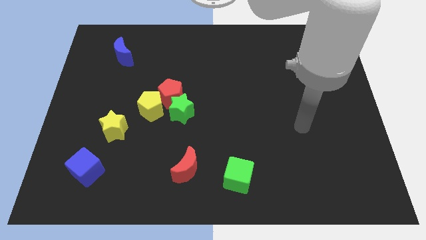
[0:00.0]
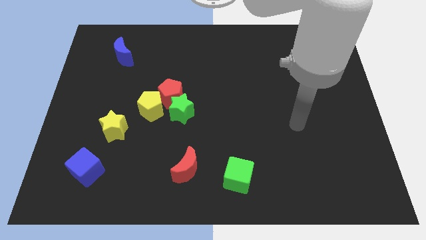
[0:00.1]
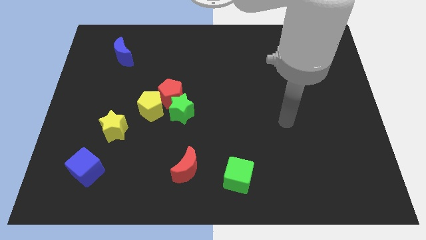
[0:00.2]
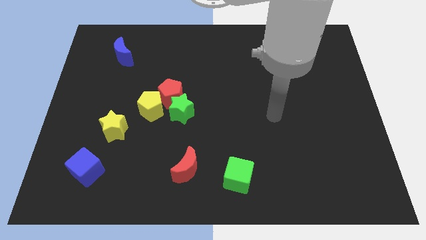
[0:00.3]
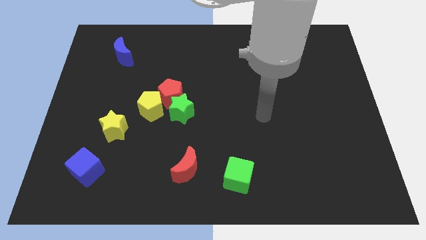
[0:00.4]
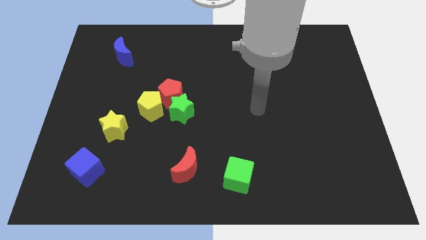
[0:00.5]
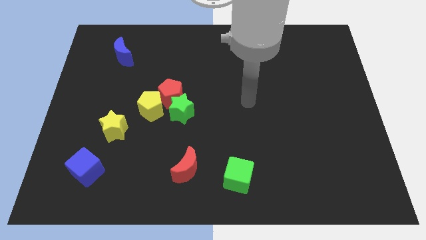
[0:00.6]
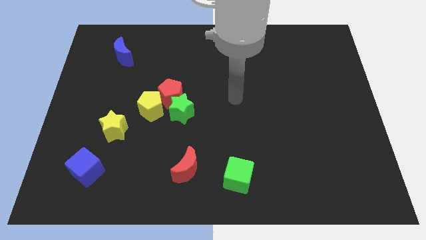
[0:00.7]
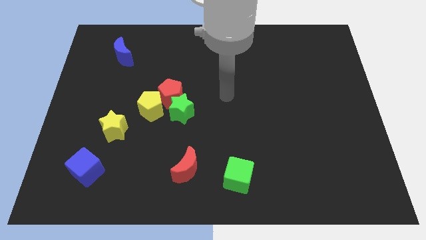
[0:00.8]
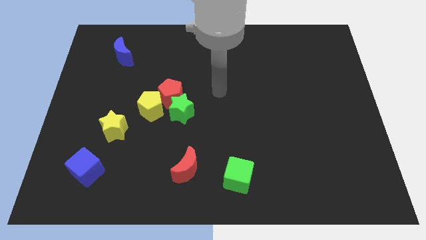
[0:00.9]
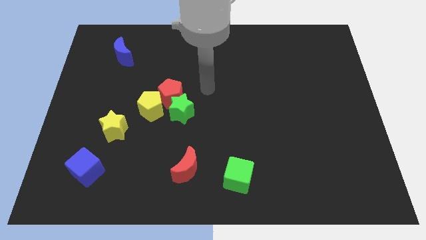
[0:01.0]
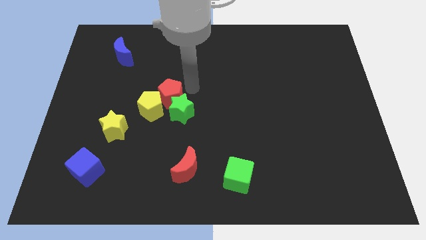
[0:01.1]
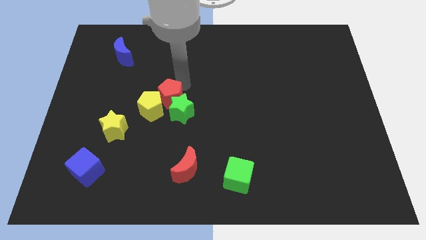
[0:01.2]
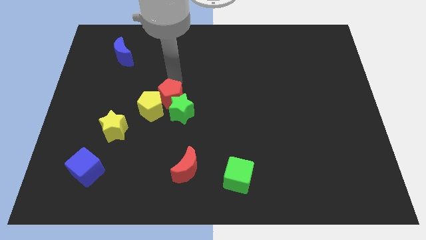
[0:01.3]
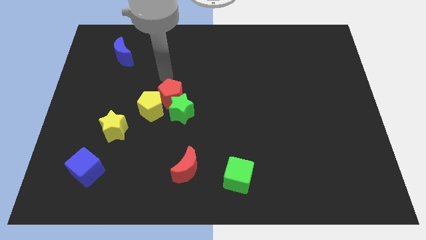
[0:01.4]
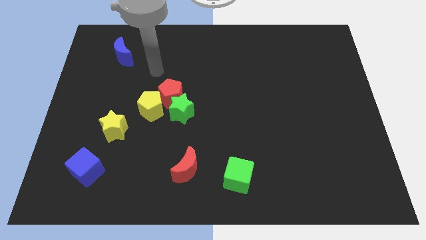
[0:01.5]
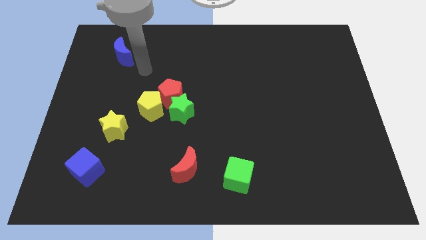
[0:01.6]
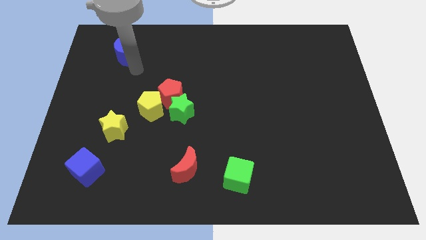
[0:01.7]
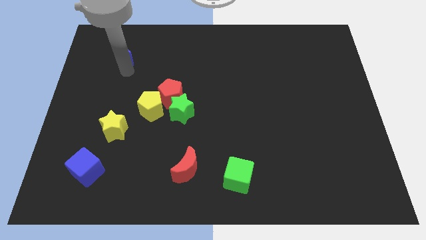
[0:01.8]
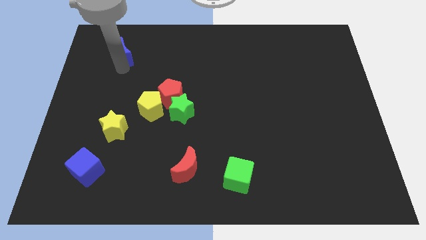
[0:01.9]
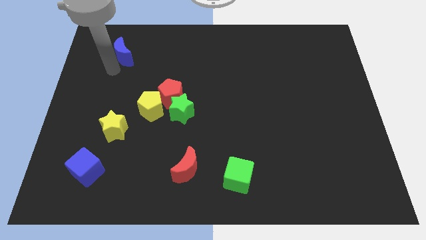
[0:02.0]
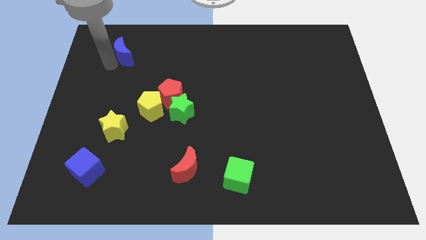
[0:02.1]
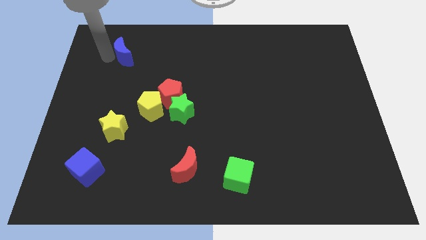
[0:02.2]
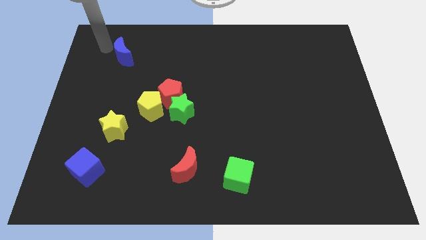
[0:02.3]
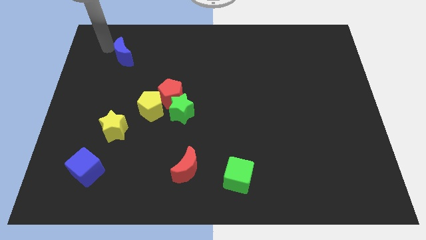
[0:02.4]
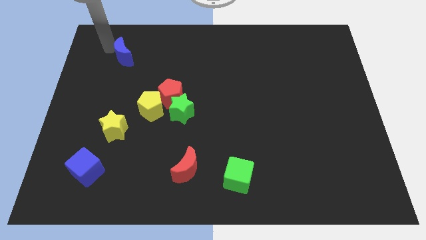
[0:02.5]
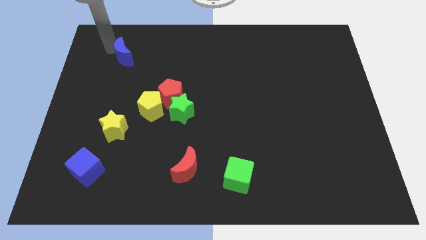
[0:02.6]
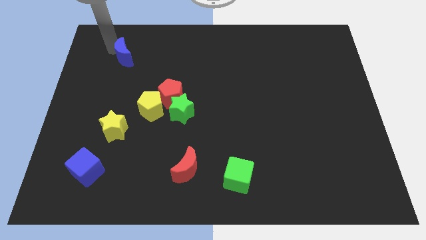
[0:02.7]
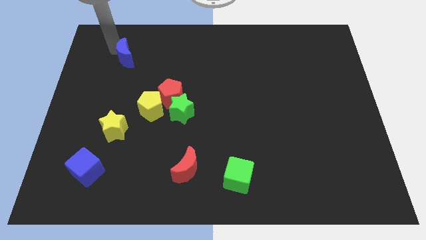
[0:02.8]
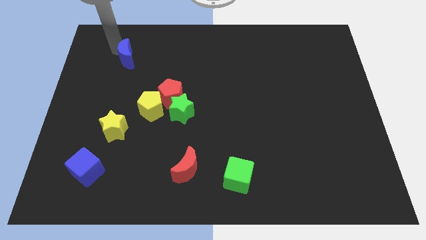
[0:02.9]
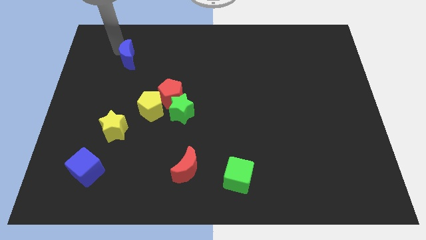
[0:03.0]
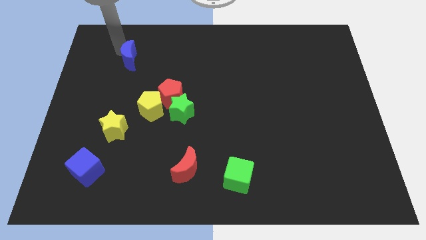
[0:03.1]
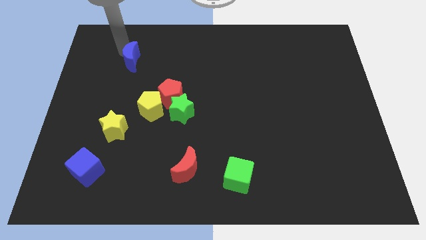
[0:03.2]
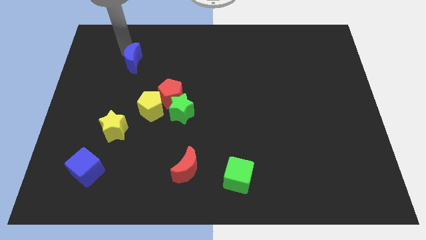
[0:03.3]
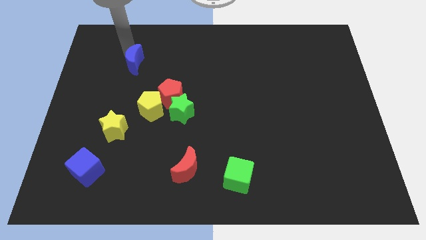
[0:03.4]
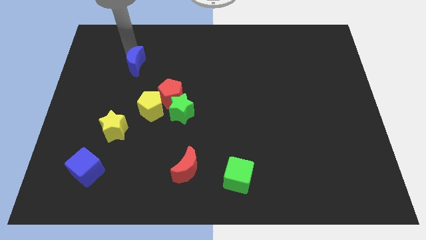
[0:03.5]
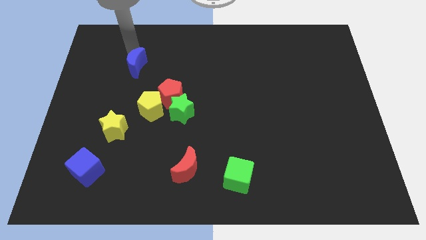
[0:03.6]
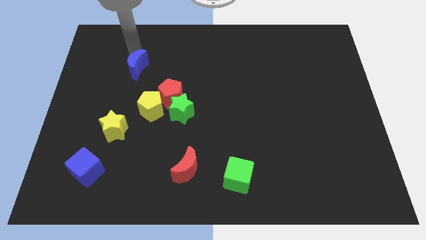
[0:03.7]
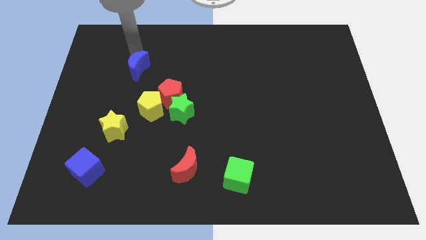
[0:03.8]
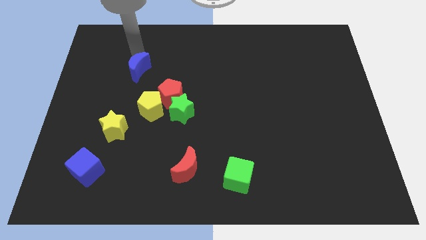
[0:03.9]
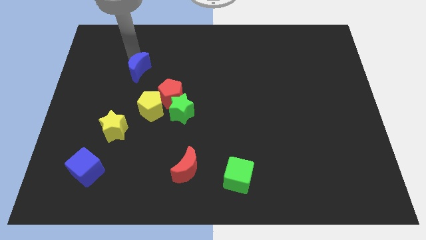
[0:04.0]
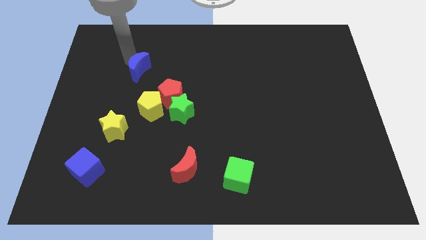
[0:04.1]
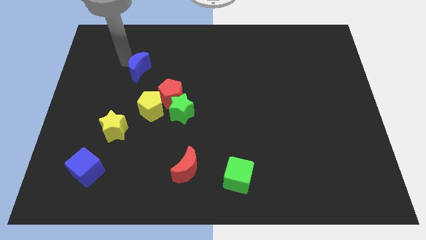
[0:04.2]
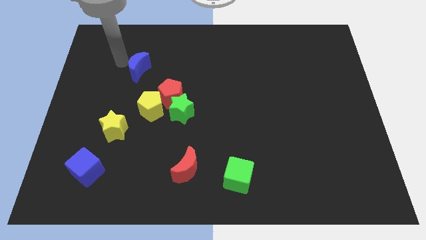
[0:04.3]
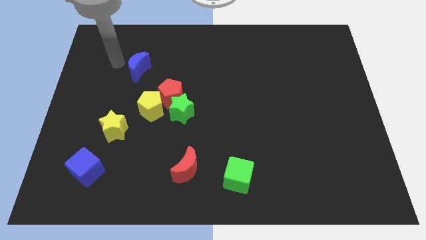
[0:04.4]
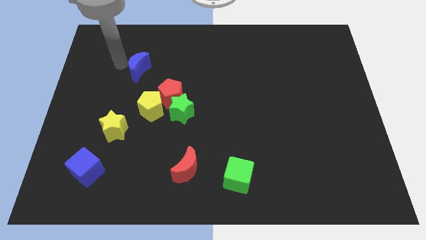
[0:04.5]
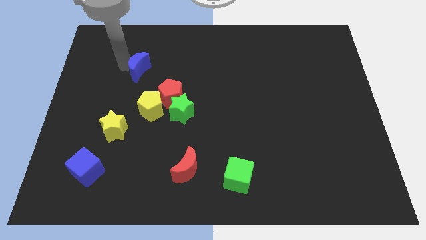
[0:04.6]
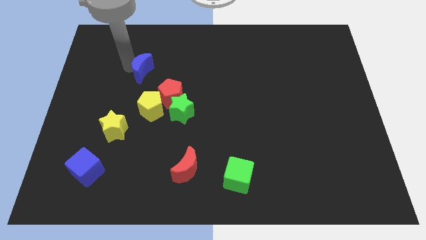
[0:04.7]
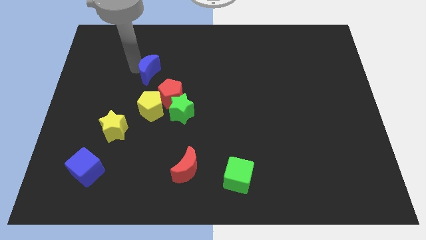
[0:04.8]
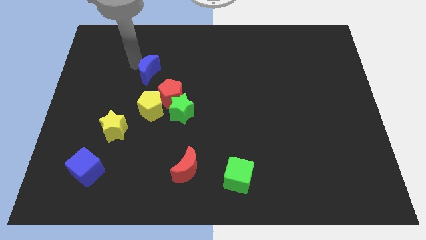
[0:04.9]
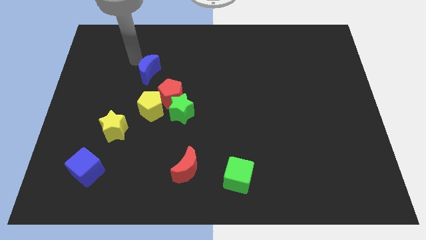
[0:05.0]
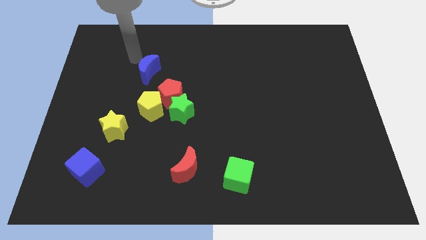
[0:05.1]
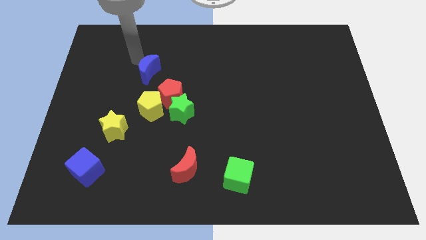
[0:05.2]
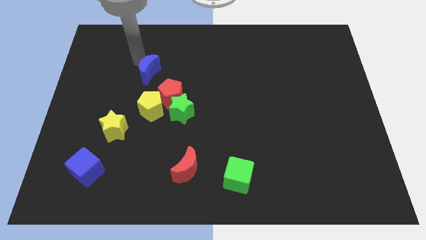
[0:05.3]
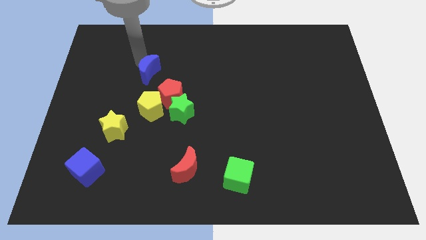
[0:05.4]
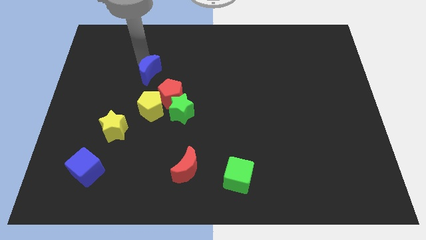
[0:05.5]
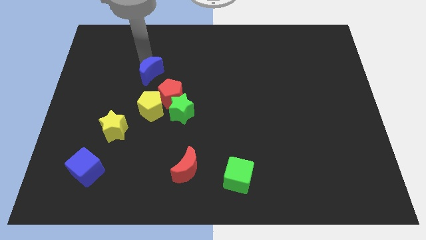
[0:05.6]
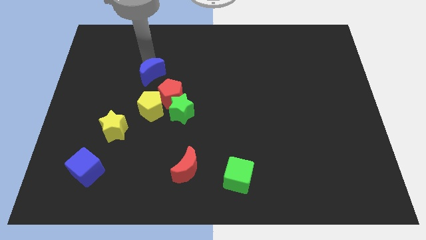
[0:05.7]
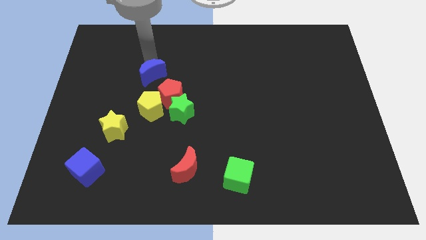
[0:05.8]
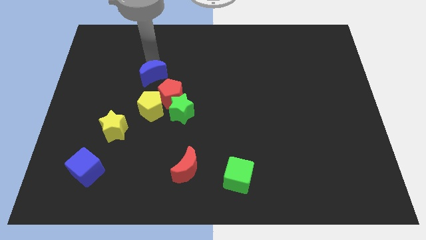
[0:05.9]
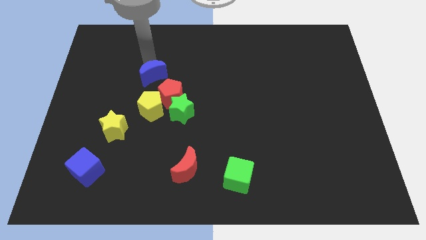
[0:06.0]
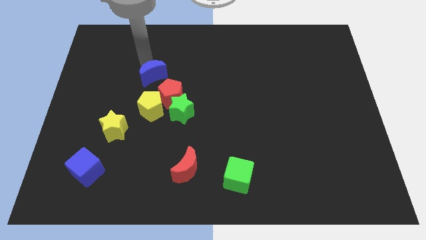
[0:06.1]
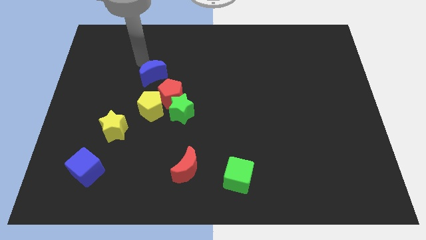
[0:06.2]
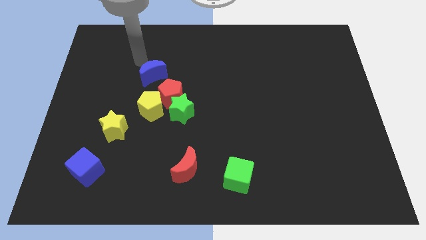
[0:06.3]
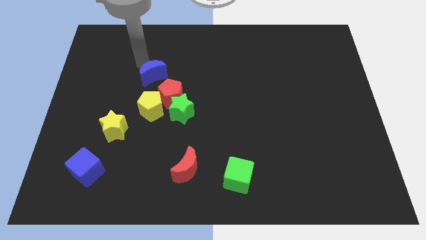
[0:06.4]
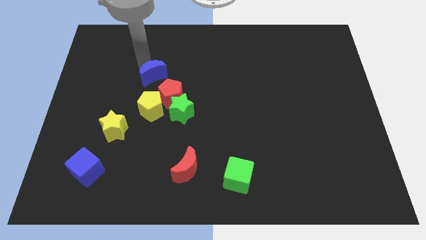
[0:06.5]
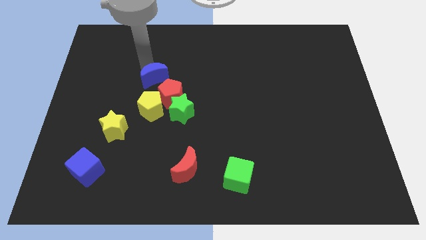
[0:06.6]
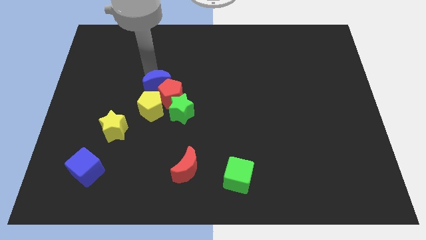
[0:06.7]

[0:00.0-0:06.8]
slide the blue moon next to the red pentagon
